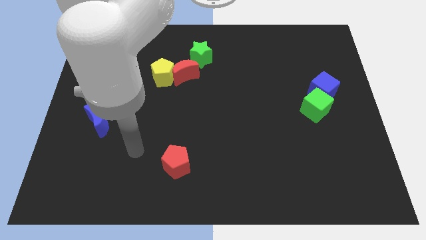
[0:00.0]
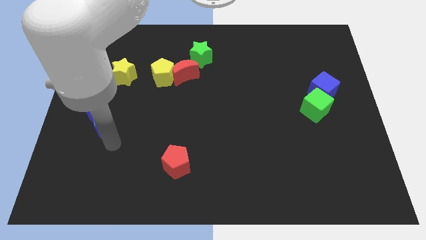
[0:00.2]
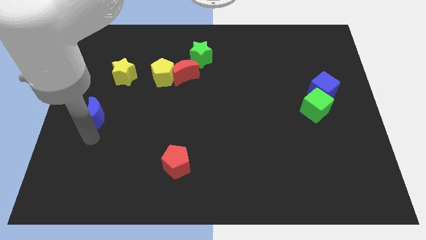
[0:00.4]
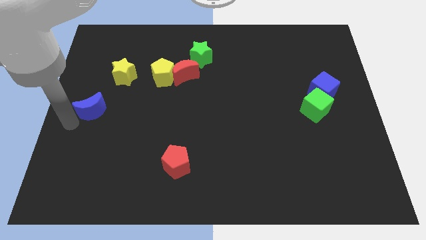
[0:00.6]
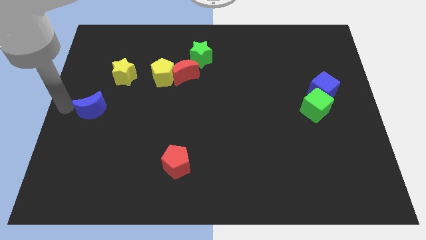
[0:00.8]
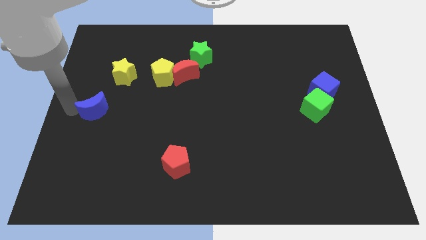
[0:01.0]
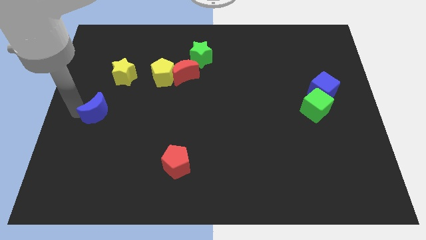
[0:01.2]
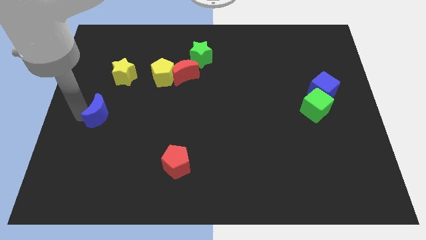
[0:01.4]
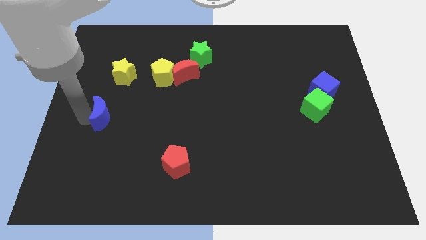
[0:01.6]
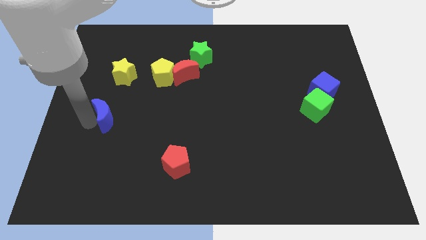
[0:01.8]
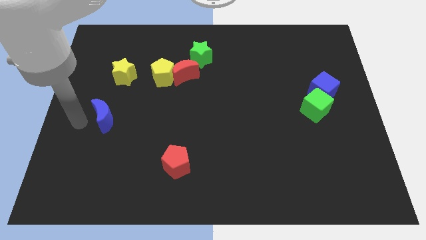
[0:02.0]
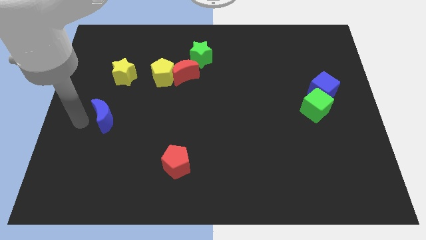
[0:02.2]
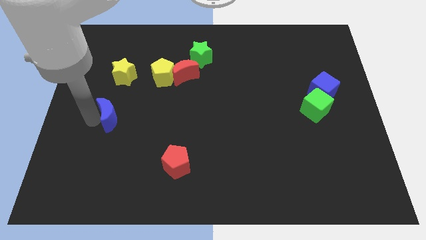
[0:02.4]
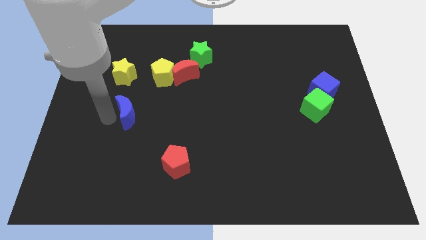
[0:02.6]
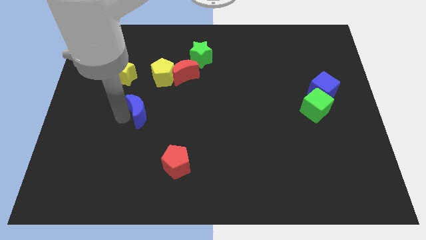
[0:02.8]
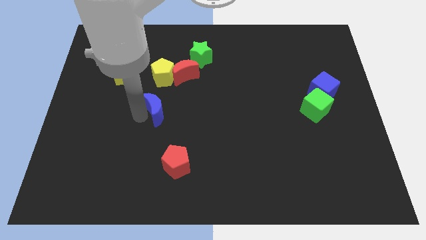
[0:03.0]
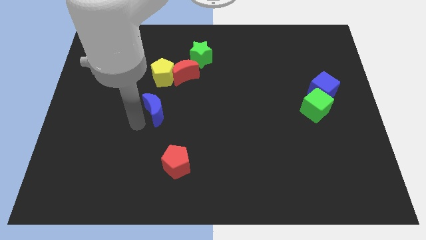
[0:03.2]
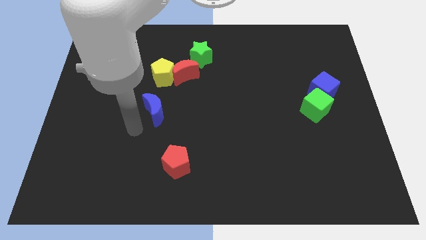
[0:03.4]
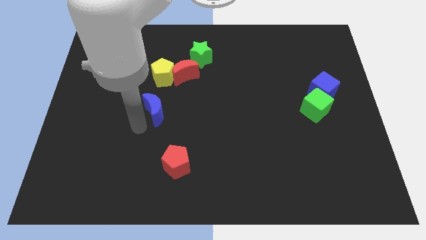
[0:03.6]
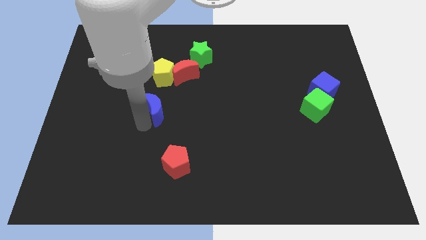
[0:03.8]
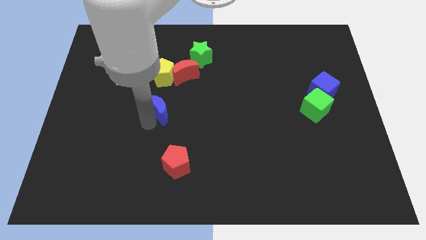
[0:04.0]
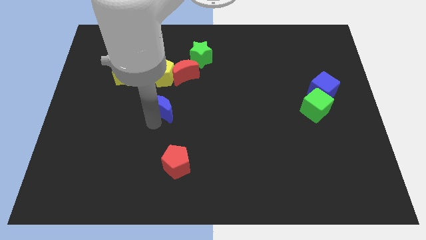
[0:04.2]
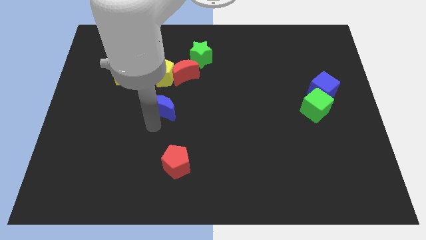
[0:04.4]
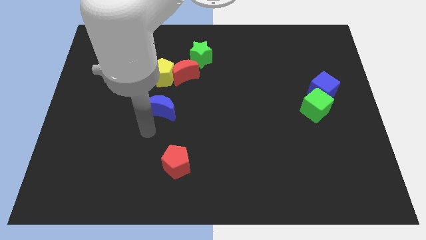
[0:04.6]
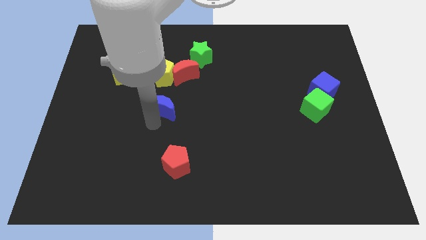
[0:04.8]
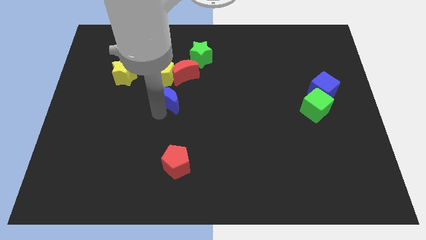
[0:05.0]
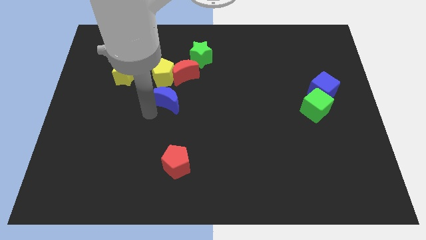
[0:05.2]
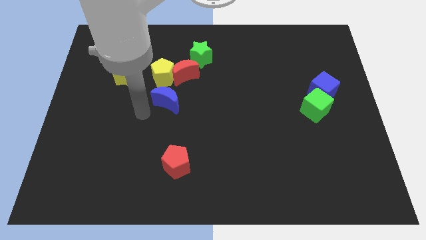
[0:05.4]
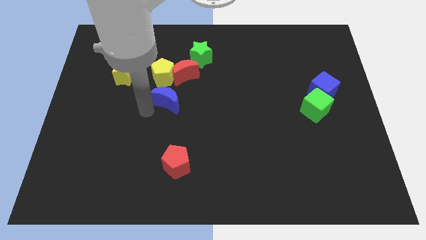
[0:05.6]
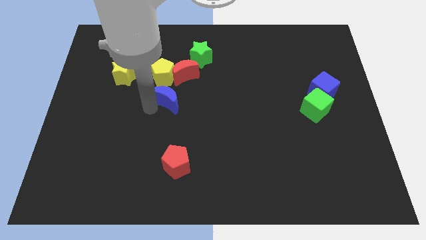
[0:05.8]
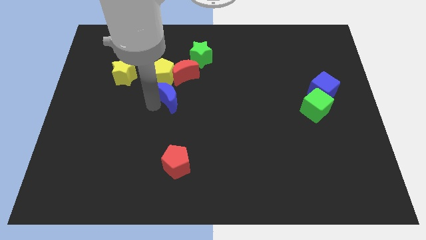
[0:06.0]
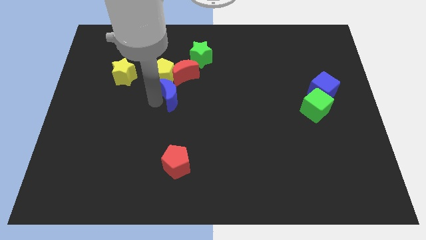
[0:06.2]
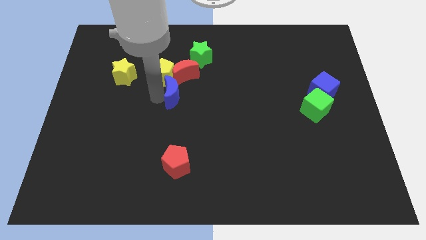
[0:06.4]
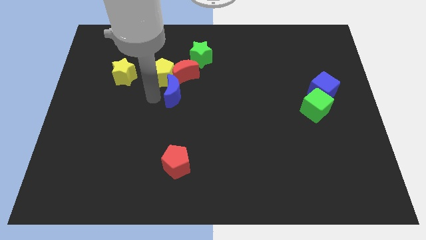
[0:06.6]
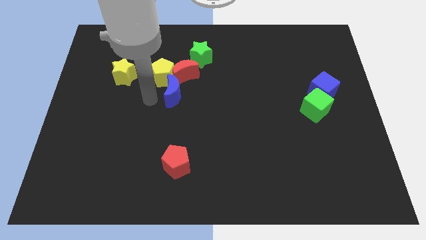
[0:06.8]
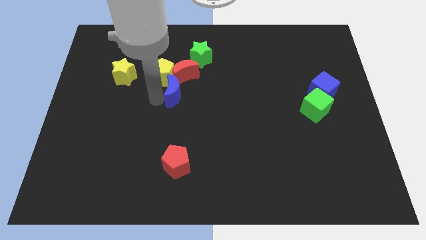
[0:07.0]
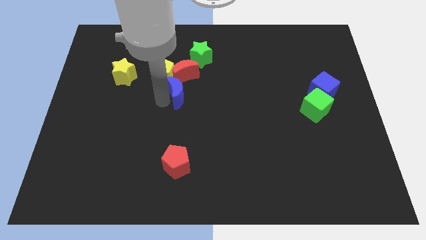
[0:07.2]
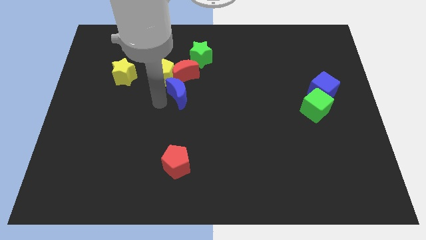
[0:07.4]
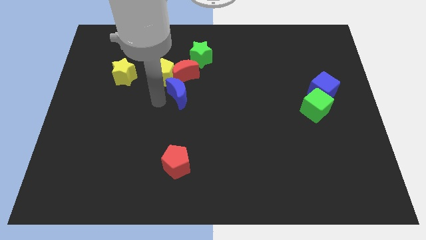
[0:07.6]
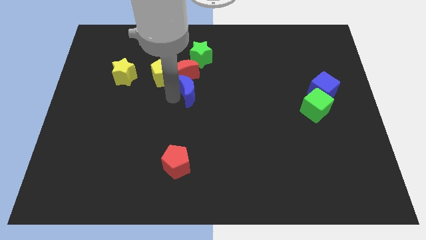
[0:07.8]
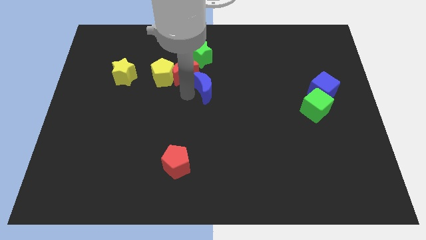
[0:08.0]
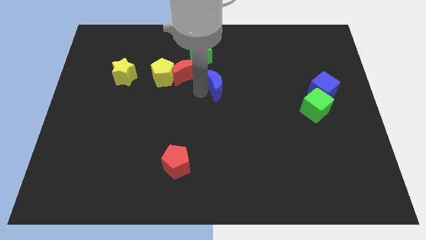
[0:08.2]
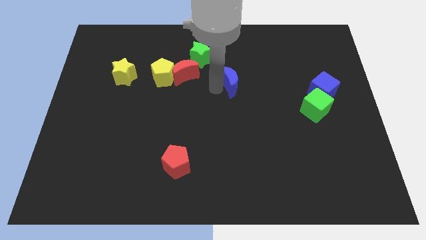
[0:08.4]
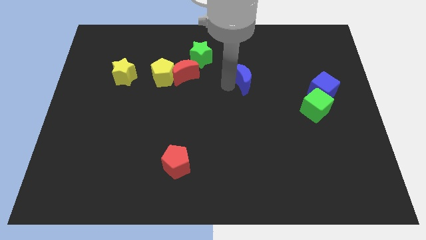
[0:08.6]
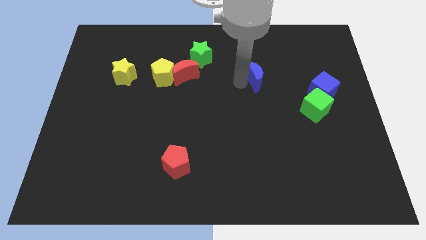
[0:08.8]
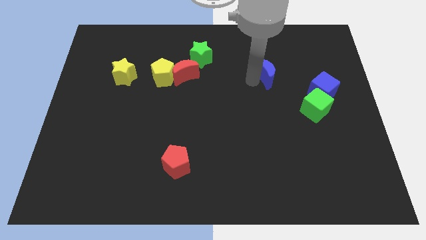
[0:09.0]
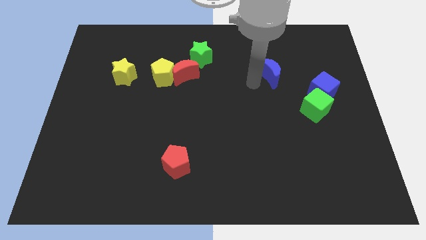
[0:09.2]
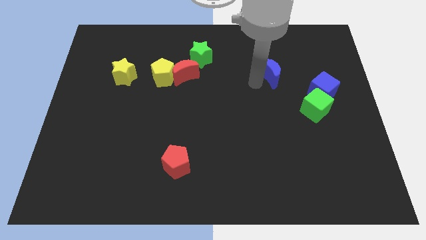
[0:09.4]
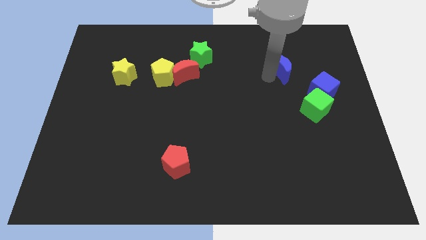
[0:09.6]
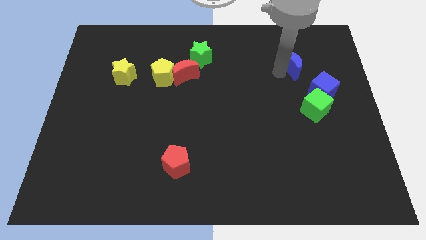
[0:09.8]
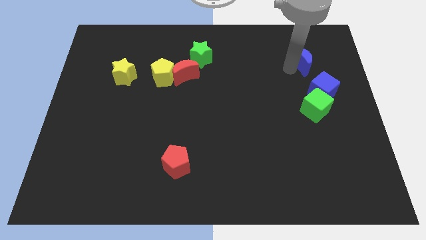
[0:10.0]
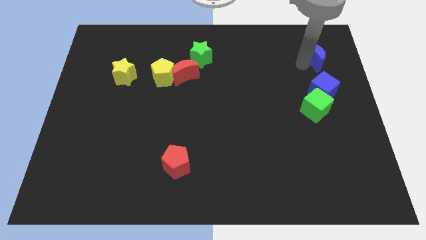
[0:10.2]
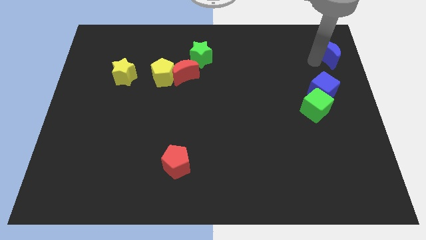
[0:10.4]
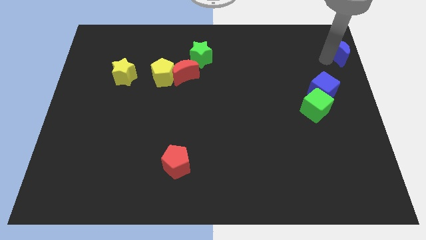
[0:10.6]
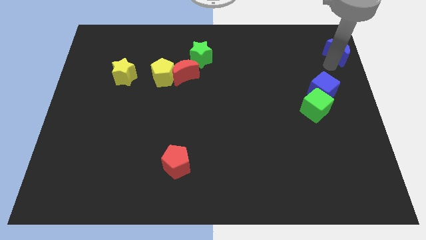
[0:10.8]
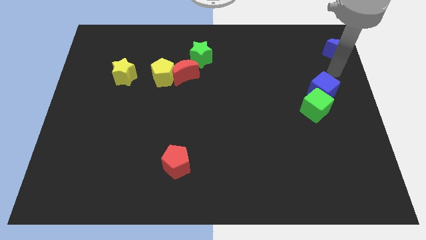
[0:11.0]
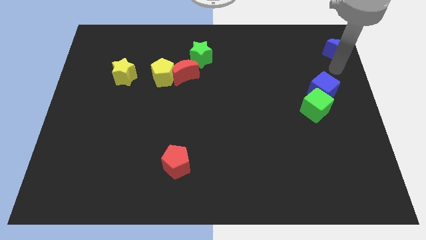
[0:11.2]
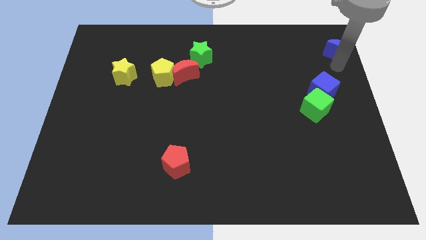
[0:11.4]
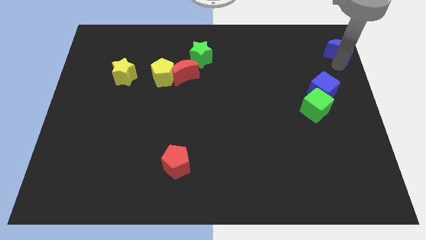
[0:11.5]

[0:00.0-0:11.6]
push the blue moon to the top right corner

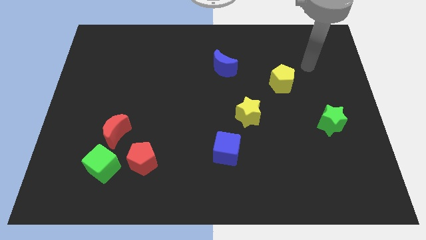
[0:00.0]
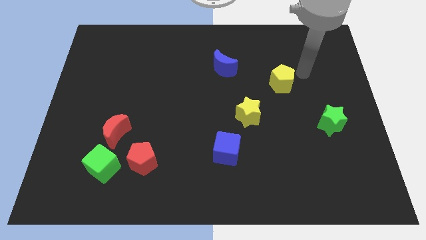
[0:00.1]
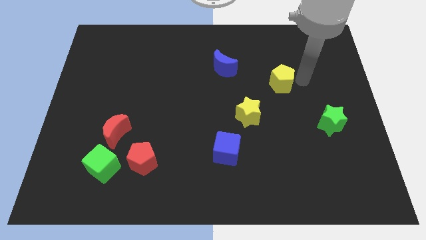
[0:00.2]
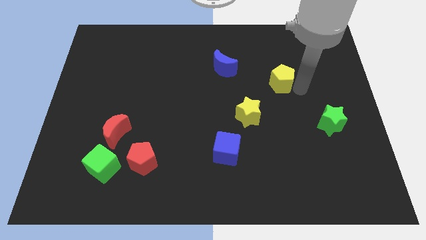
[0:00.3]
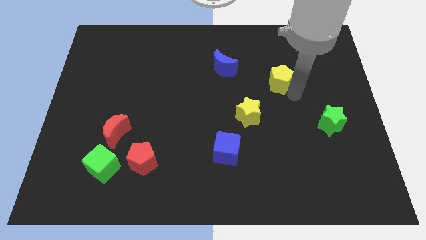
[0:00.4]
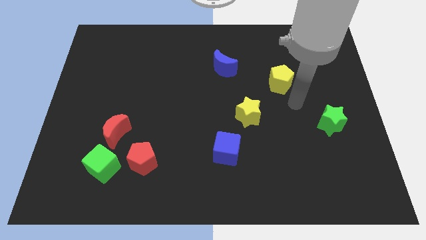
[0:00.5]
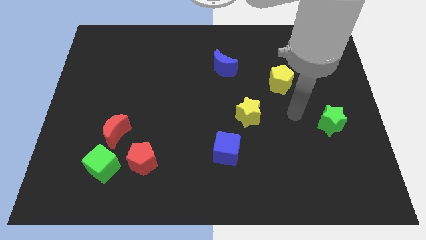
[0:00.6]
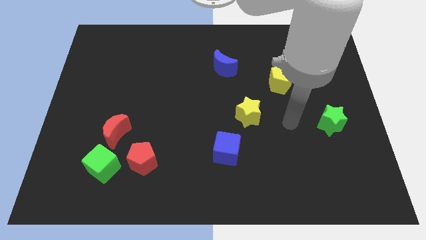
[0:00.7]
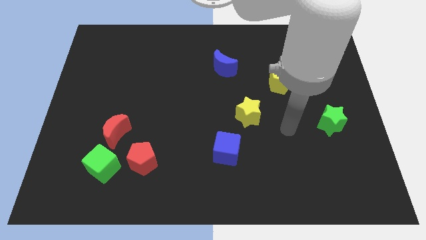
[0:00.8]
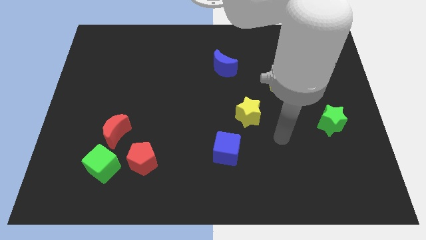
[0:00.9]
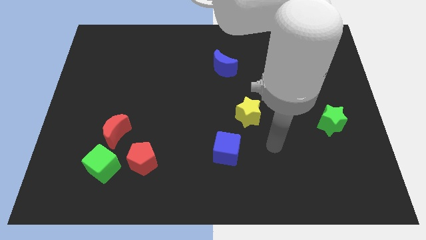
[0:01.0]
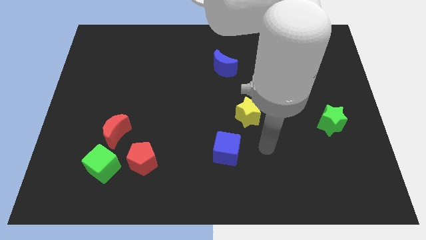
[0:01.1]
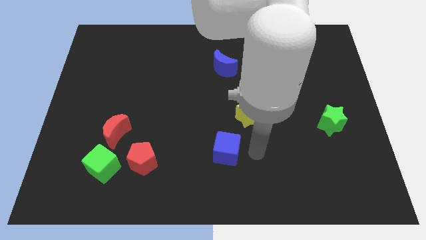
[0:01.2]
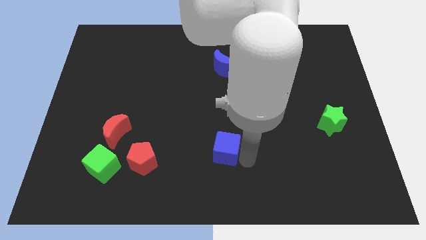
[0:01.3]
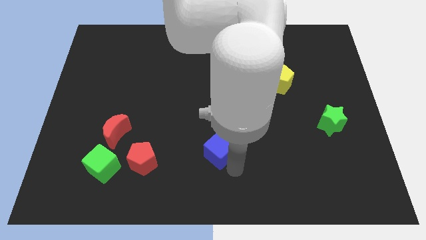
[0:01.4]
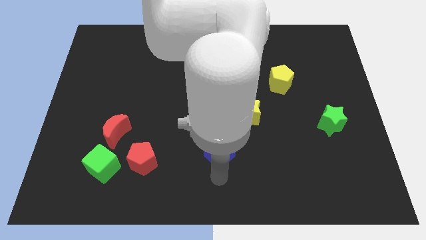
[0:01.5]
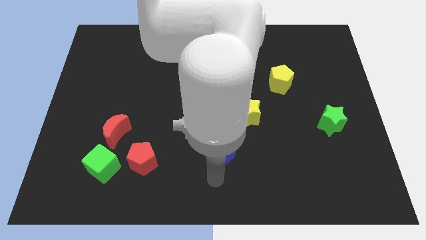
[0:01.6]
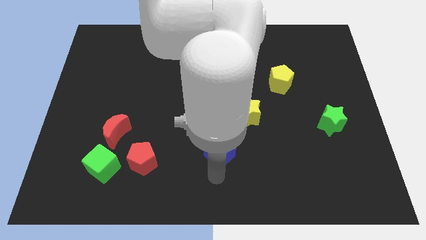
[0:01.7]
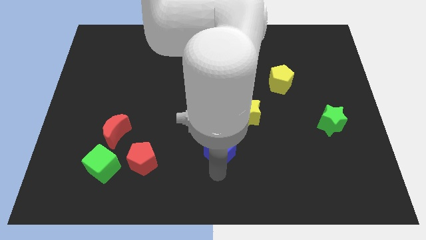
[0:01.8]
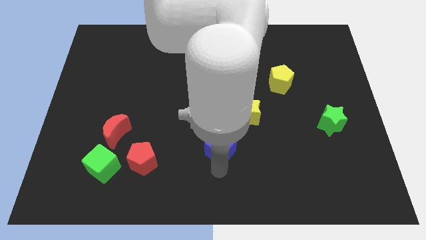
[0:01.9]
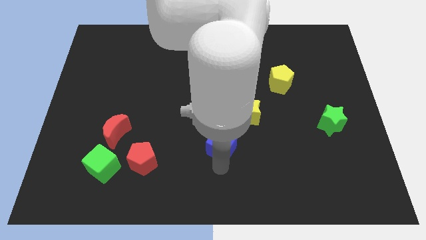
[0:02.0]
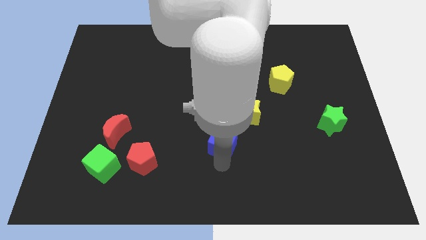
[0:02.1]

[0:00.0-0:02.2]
move the blue cube to the center
